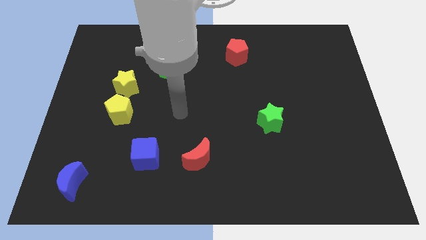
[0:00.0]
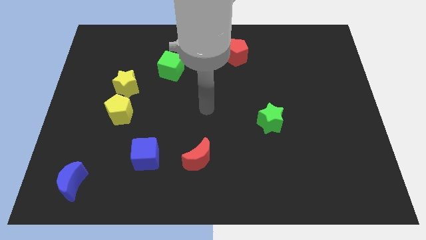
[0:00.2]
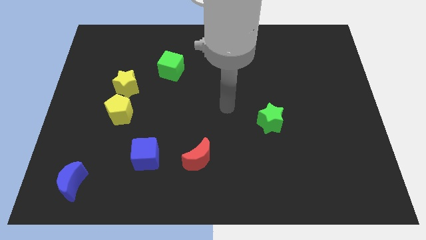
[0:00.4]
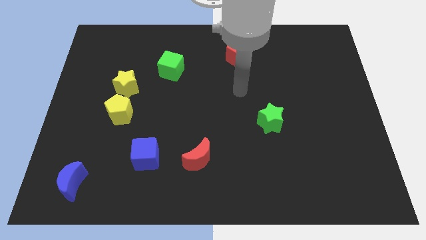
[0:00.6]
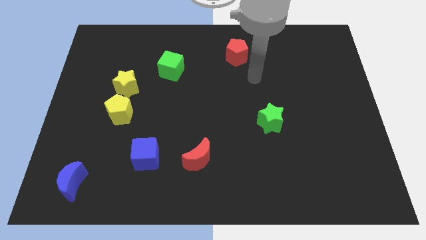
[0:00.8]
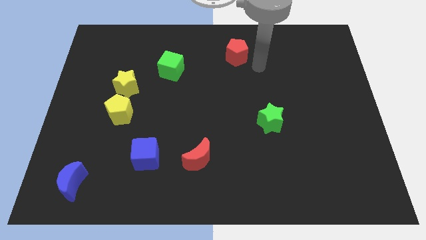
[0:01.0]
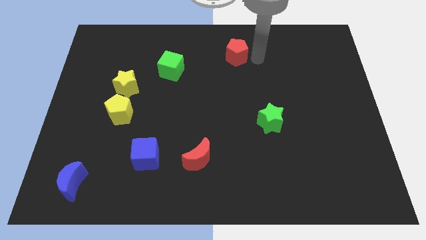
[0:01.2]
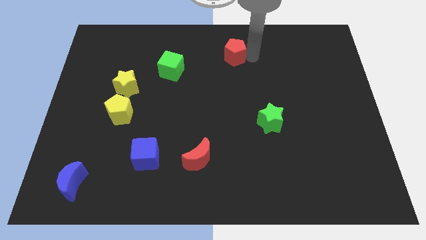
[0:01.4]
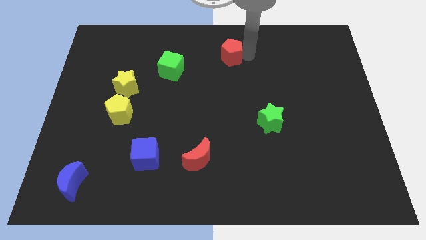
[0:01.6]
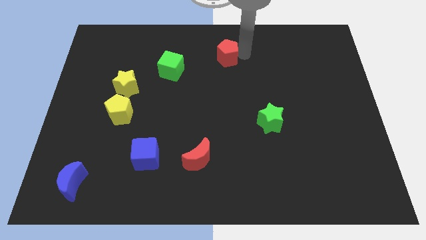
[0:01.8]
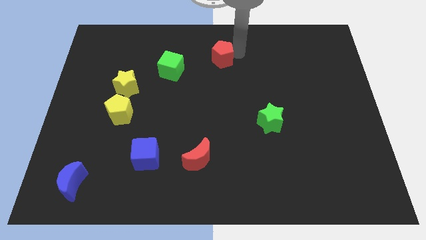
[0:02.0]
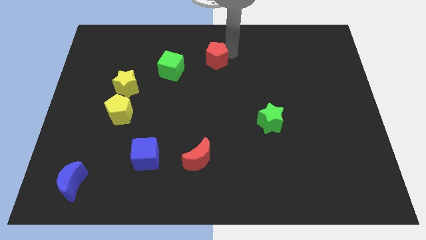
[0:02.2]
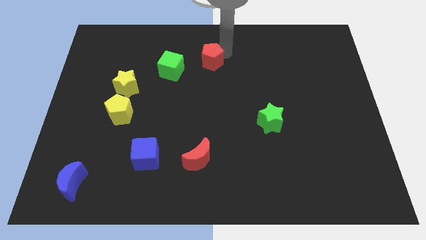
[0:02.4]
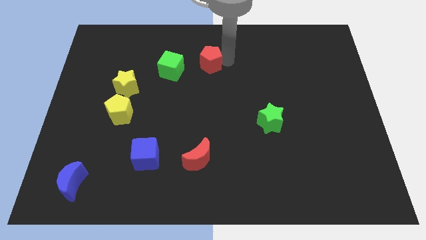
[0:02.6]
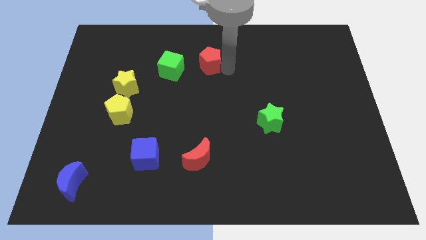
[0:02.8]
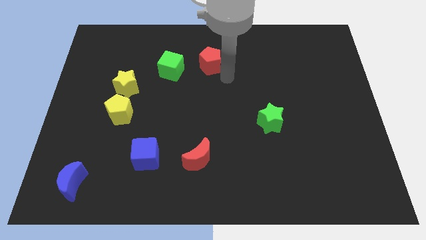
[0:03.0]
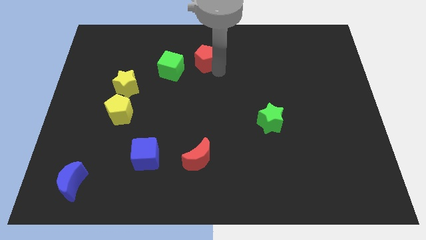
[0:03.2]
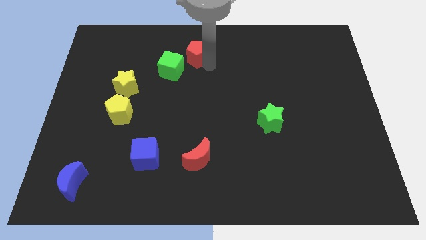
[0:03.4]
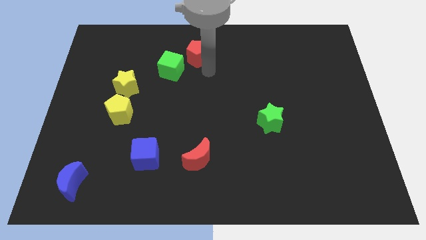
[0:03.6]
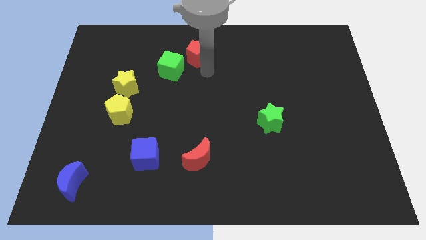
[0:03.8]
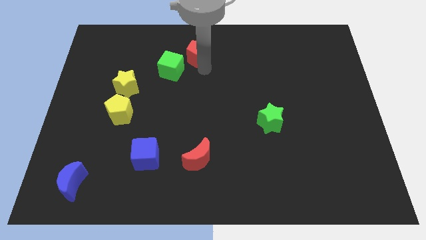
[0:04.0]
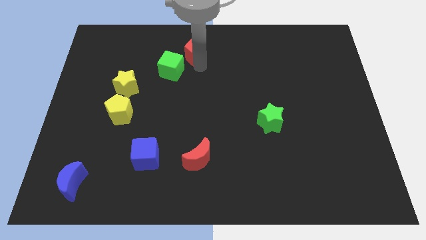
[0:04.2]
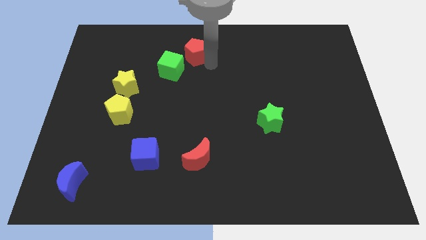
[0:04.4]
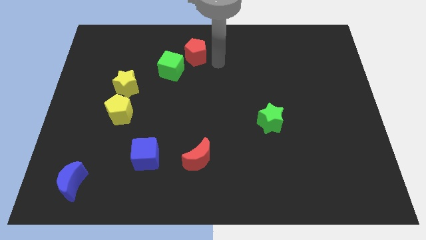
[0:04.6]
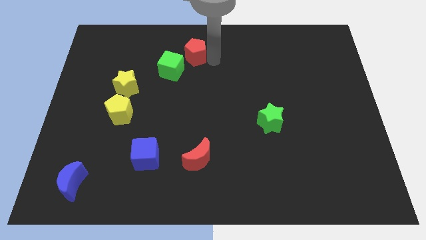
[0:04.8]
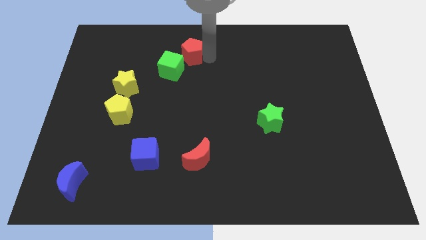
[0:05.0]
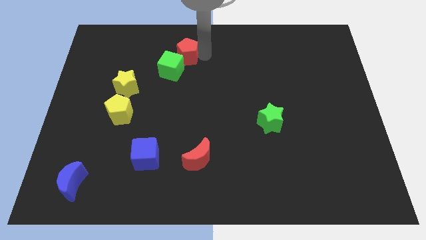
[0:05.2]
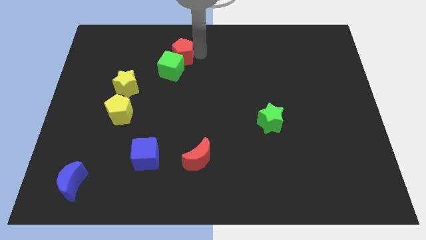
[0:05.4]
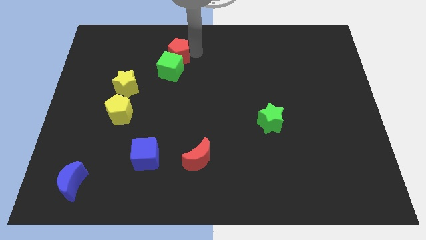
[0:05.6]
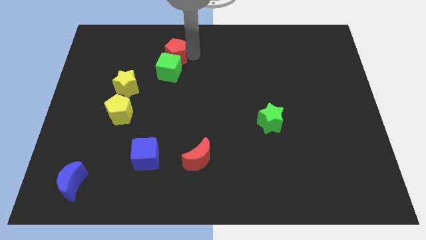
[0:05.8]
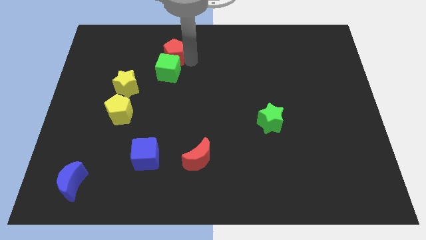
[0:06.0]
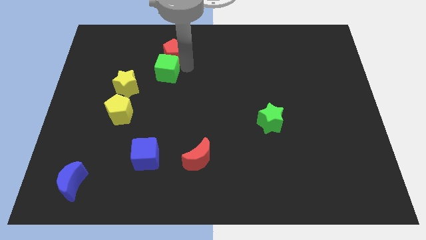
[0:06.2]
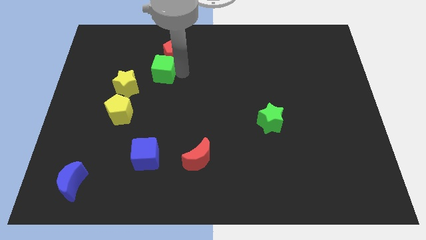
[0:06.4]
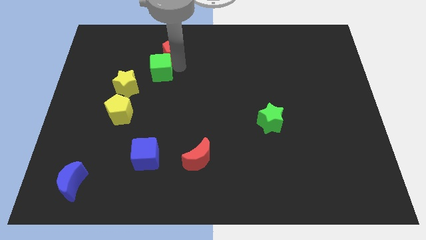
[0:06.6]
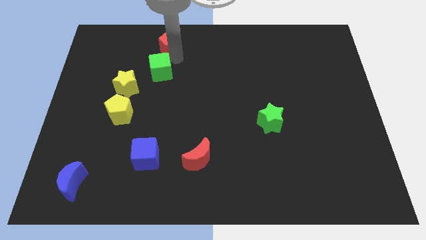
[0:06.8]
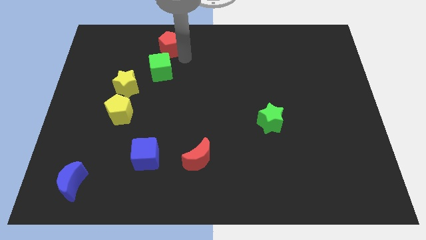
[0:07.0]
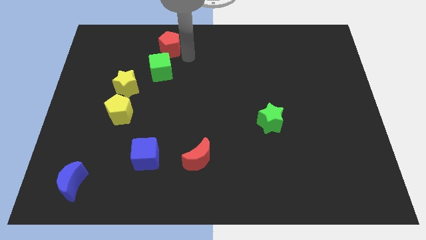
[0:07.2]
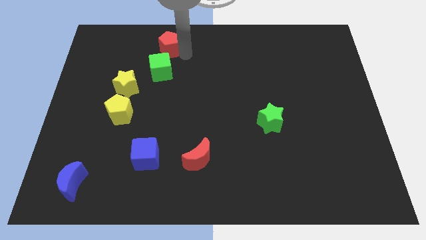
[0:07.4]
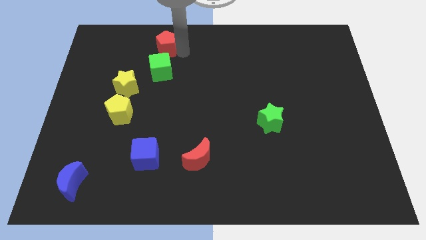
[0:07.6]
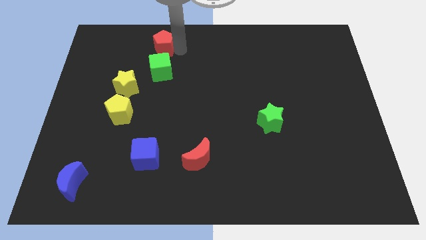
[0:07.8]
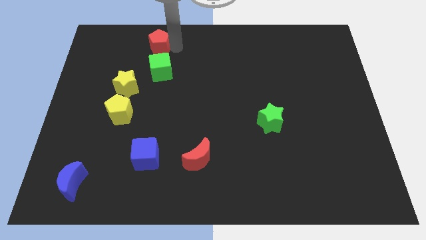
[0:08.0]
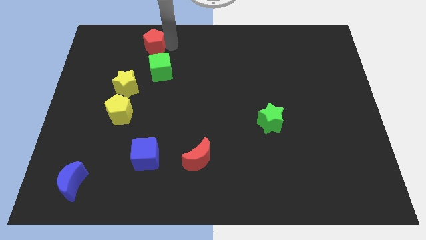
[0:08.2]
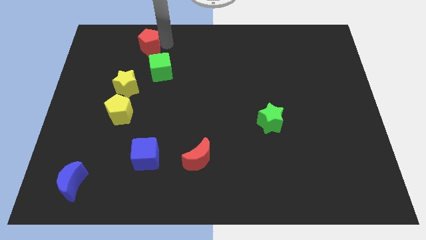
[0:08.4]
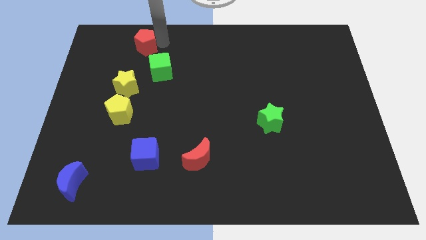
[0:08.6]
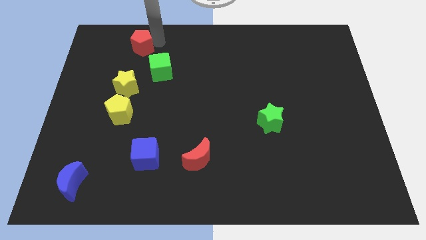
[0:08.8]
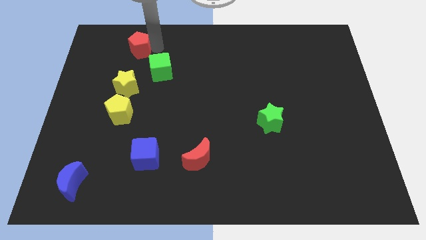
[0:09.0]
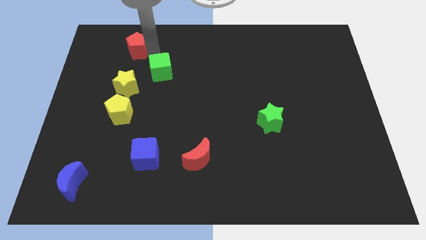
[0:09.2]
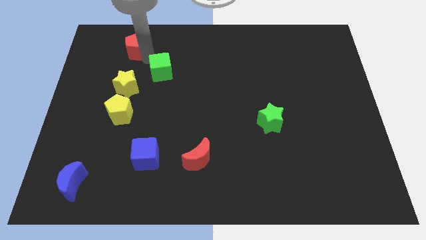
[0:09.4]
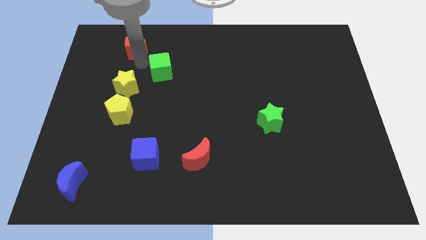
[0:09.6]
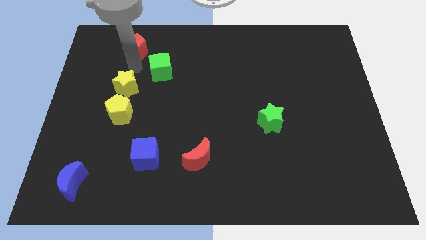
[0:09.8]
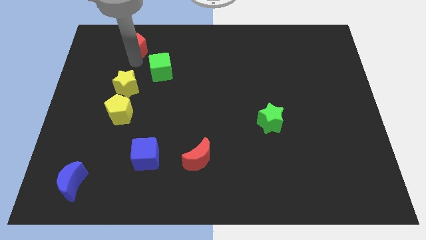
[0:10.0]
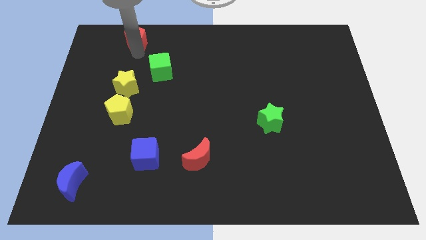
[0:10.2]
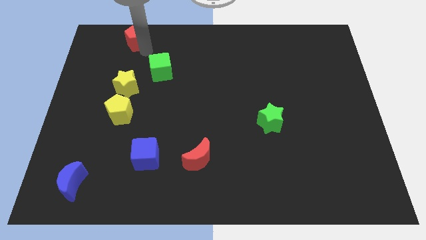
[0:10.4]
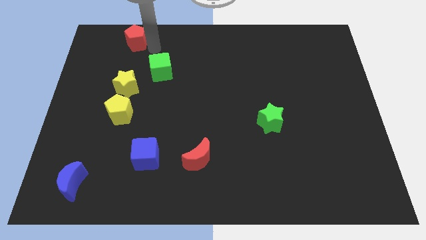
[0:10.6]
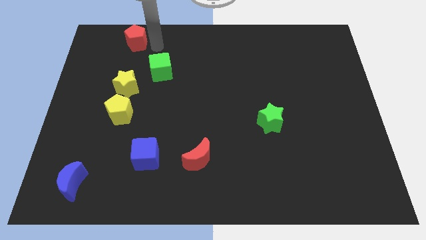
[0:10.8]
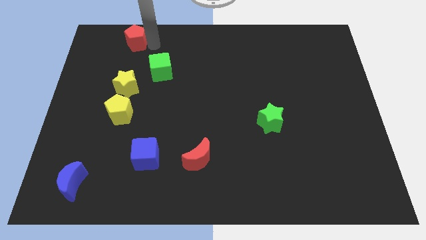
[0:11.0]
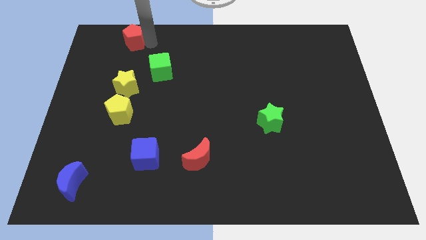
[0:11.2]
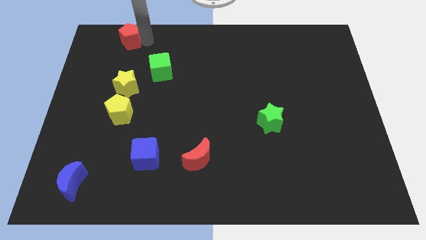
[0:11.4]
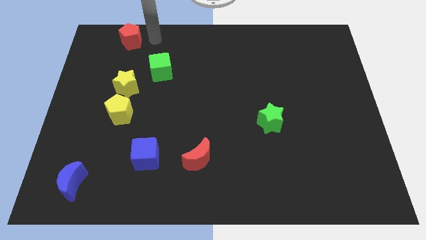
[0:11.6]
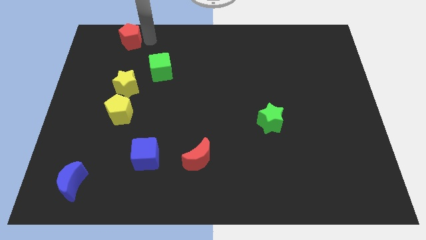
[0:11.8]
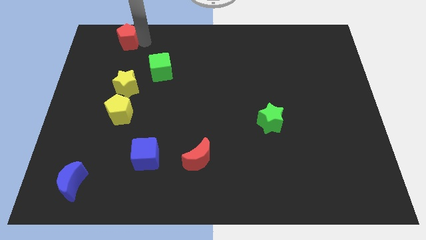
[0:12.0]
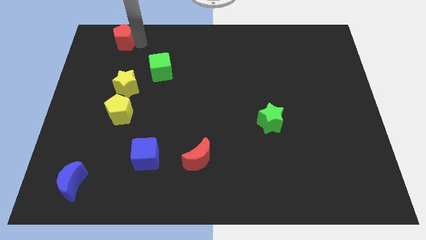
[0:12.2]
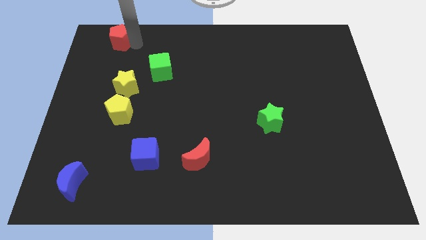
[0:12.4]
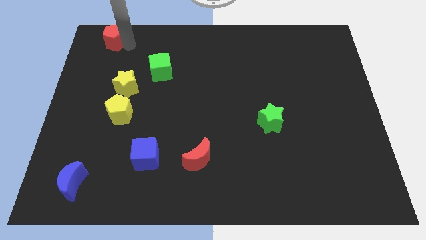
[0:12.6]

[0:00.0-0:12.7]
put the red pentagon to the top left

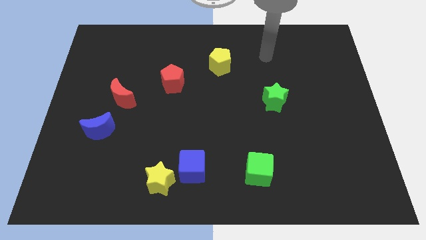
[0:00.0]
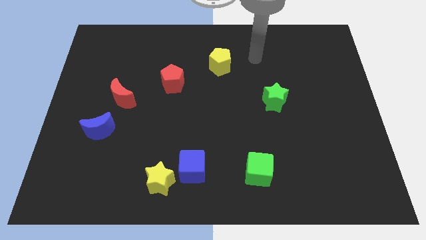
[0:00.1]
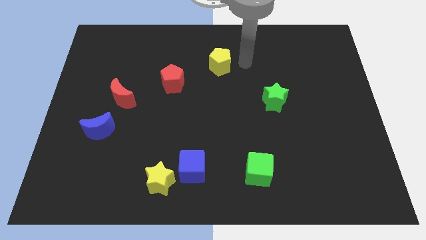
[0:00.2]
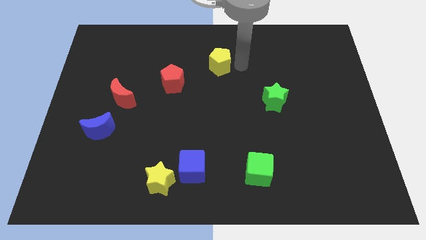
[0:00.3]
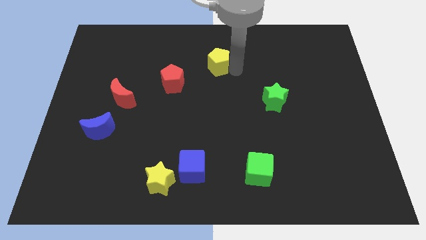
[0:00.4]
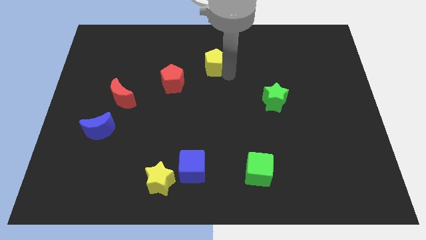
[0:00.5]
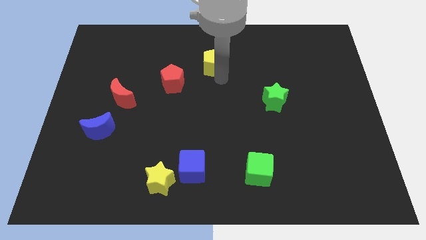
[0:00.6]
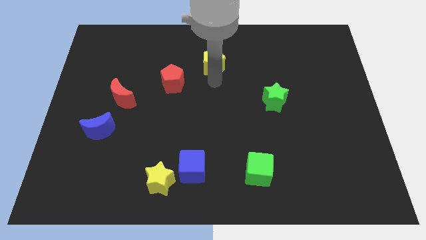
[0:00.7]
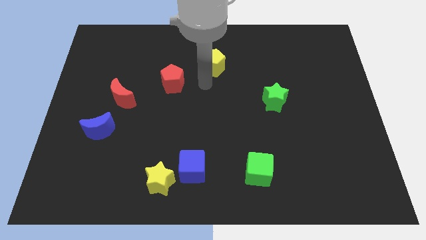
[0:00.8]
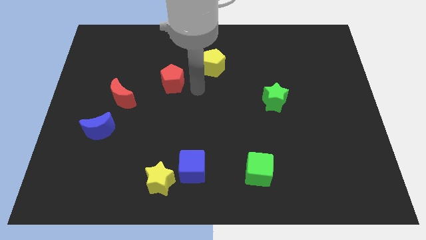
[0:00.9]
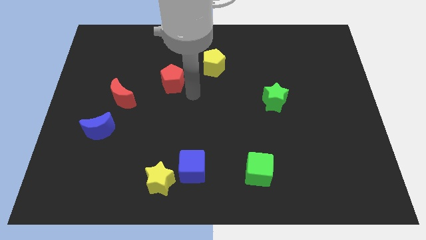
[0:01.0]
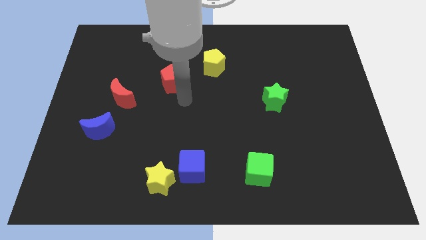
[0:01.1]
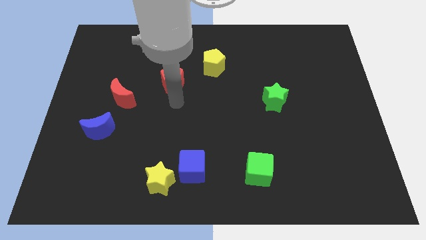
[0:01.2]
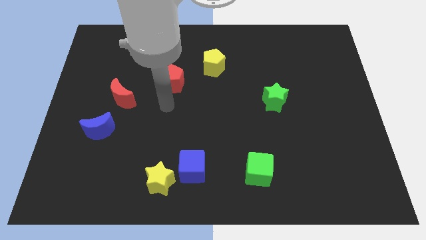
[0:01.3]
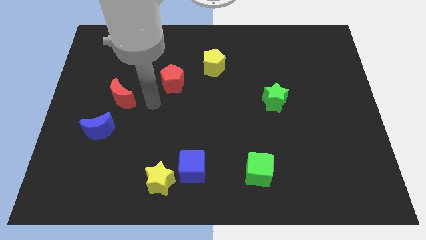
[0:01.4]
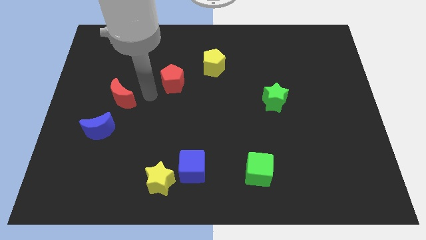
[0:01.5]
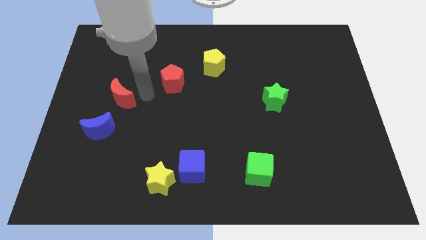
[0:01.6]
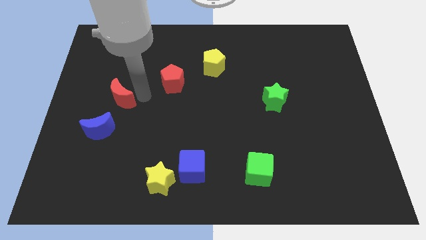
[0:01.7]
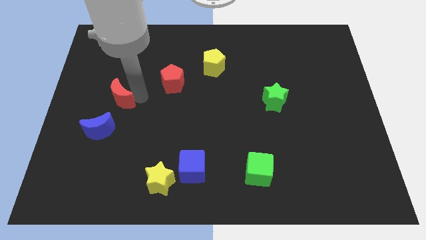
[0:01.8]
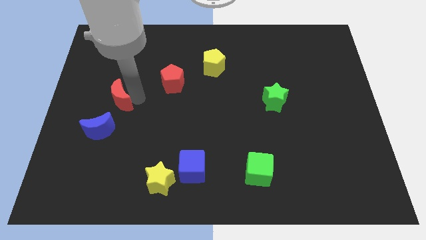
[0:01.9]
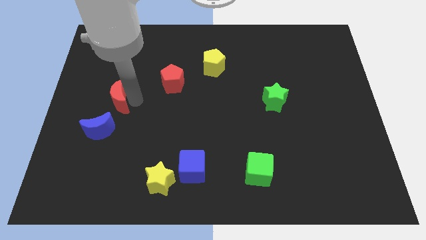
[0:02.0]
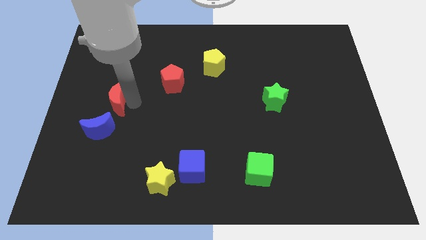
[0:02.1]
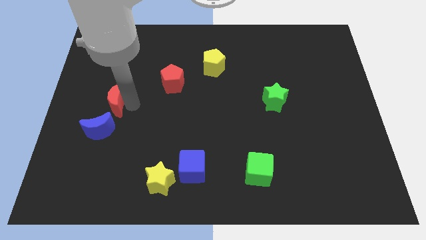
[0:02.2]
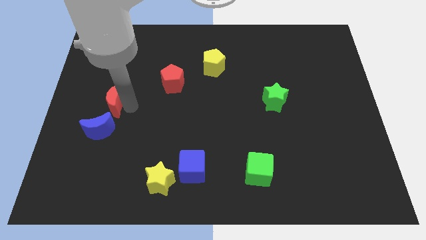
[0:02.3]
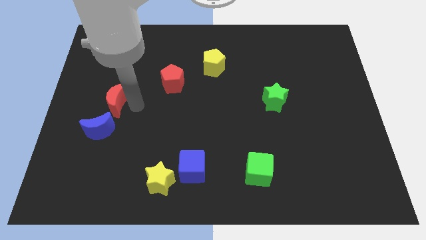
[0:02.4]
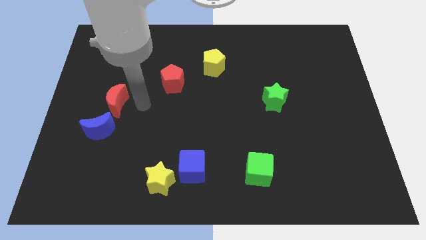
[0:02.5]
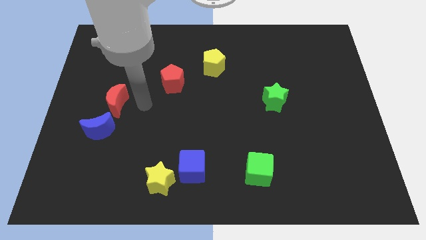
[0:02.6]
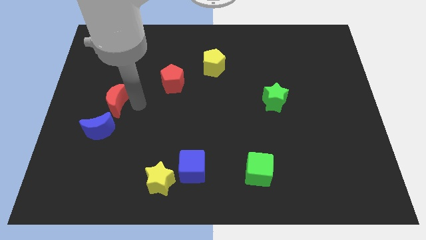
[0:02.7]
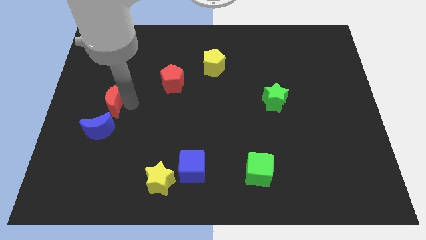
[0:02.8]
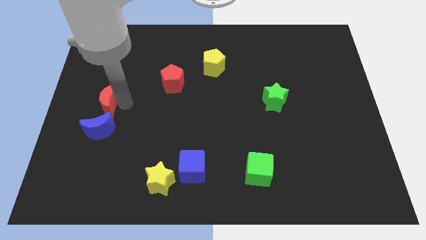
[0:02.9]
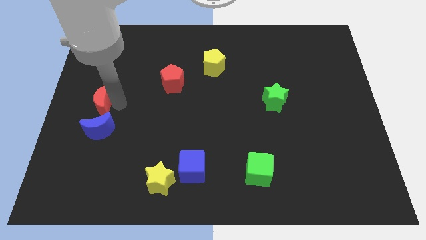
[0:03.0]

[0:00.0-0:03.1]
put the red moon to the left side
